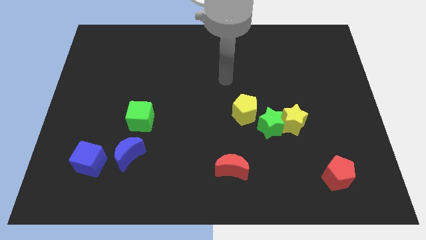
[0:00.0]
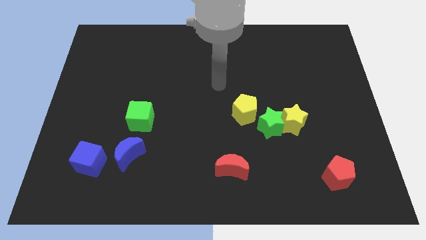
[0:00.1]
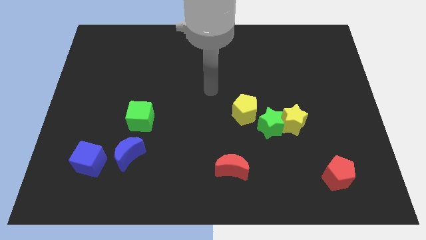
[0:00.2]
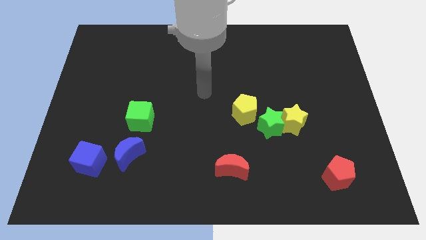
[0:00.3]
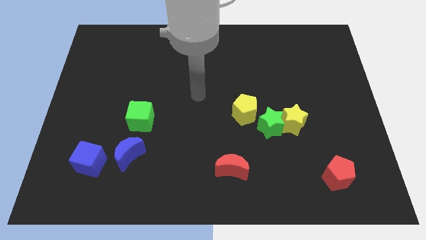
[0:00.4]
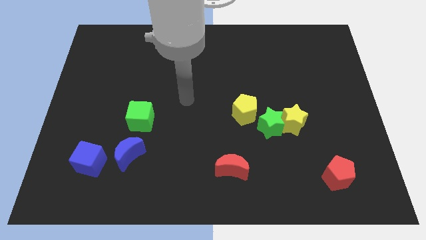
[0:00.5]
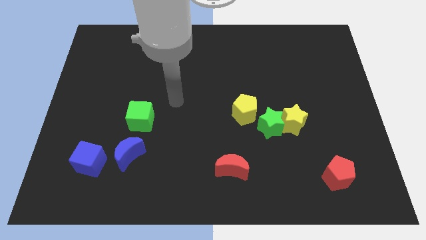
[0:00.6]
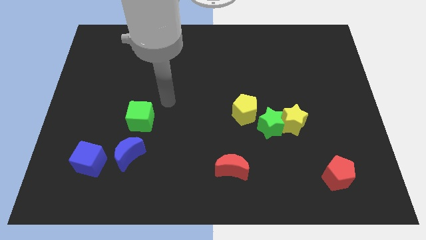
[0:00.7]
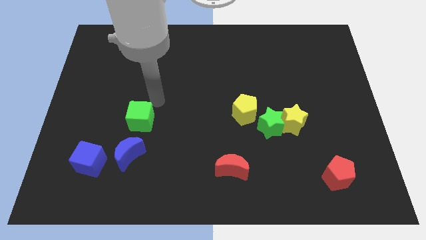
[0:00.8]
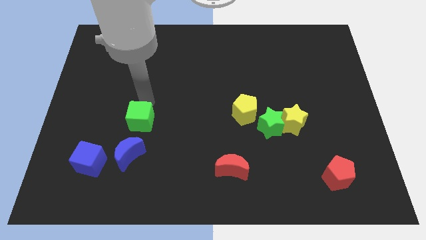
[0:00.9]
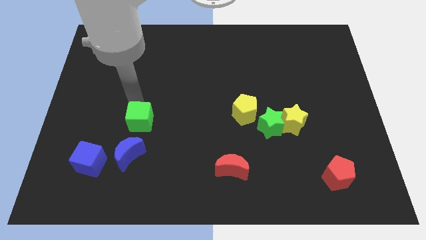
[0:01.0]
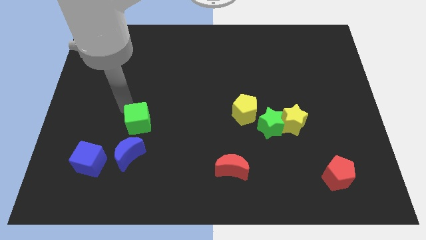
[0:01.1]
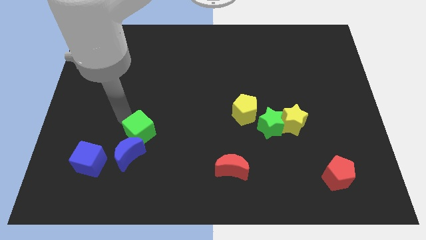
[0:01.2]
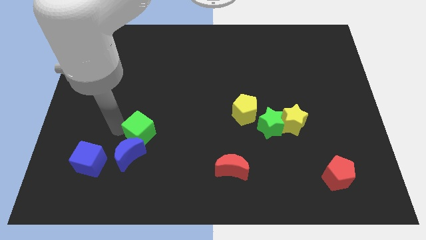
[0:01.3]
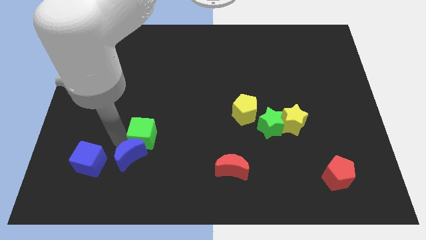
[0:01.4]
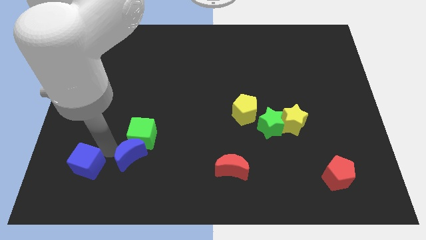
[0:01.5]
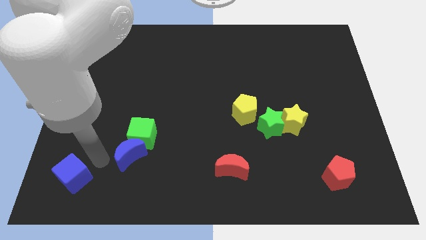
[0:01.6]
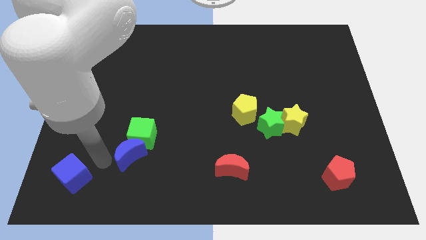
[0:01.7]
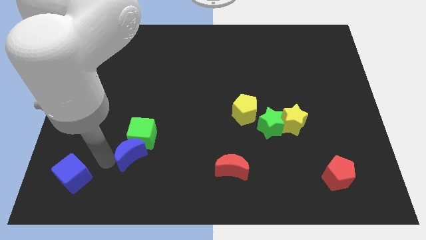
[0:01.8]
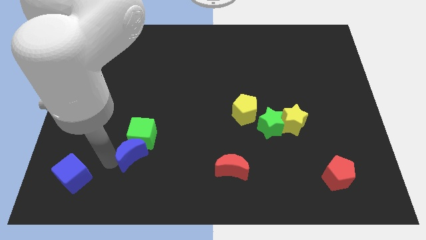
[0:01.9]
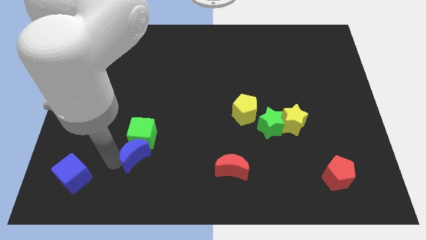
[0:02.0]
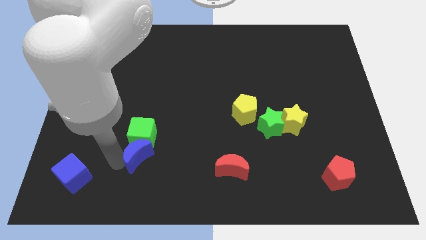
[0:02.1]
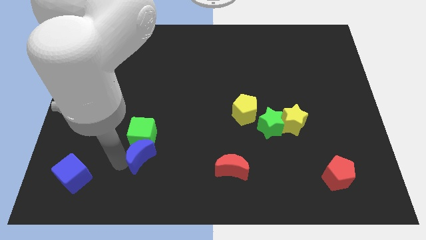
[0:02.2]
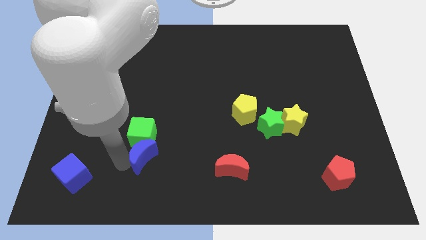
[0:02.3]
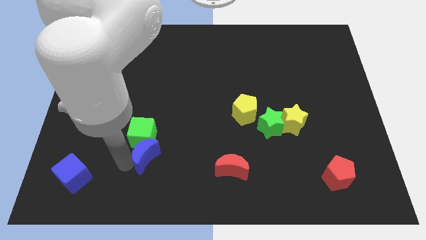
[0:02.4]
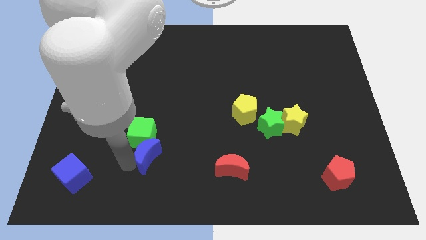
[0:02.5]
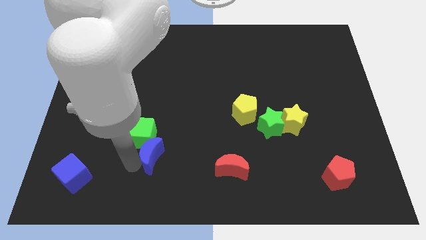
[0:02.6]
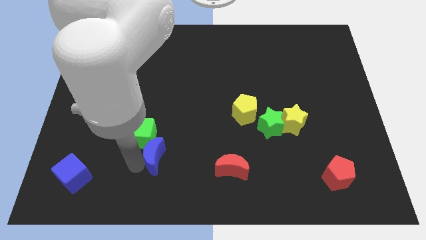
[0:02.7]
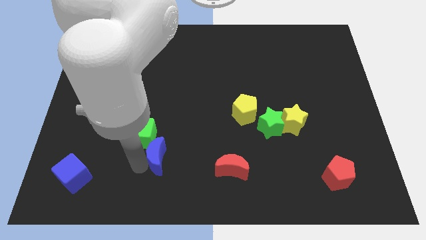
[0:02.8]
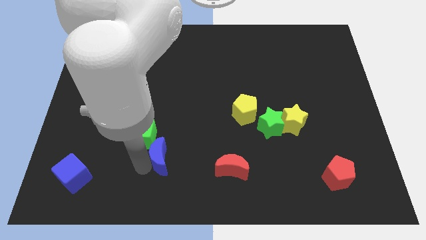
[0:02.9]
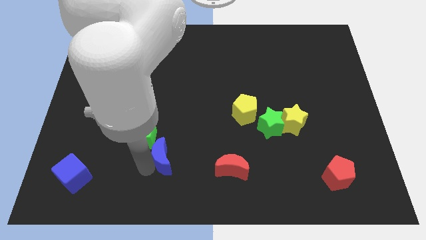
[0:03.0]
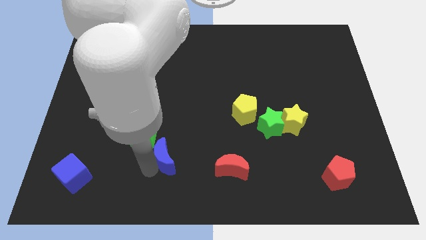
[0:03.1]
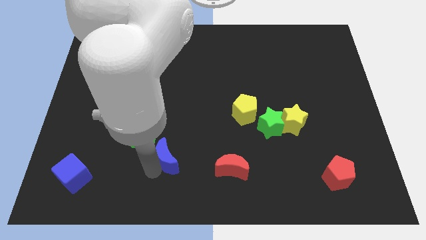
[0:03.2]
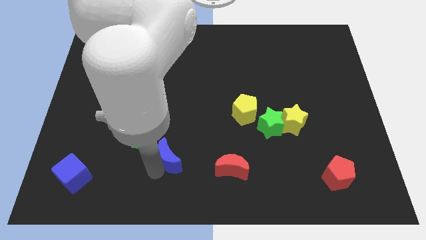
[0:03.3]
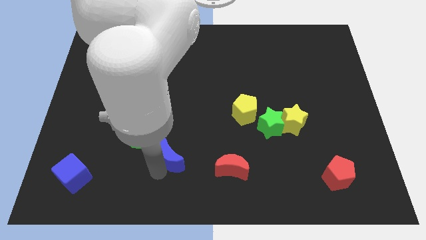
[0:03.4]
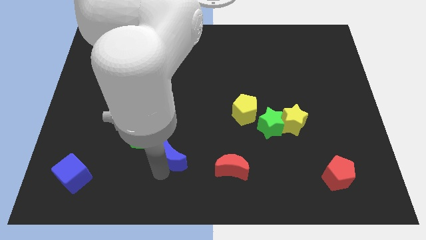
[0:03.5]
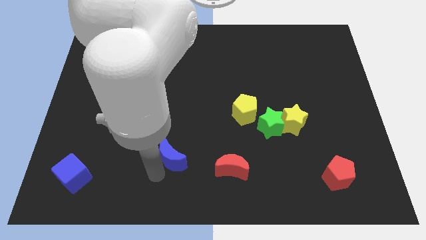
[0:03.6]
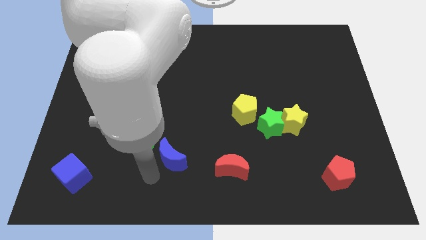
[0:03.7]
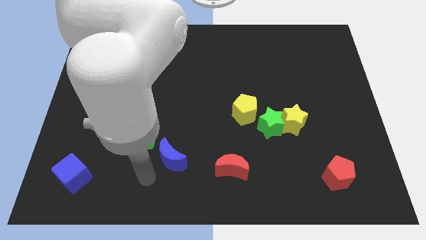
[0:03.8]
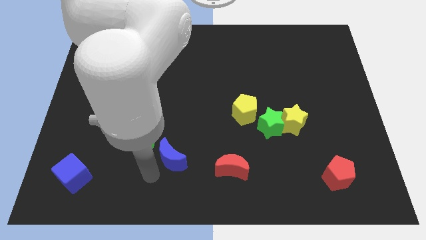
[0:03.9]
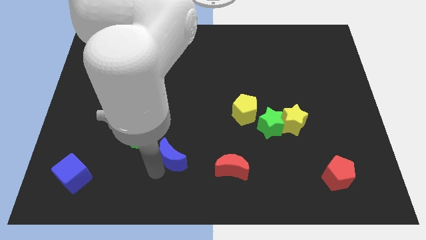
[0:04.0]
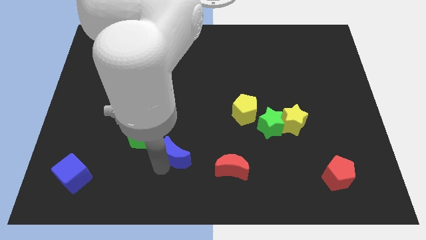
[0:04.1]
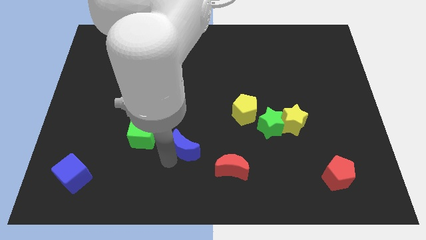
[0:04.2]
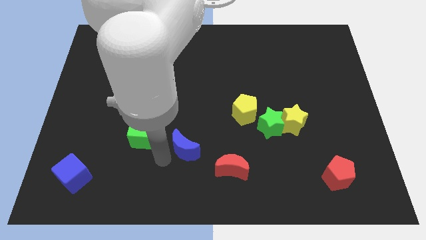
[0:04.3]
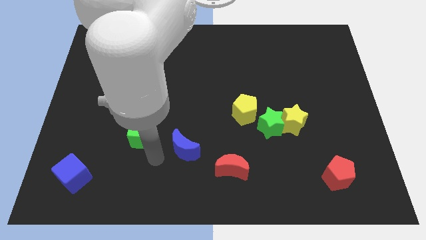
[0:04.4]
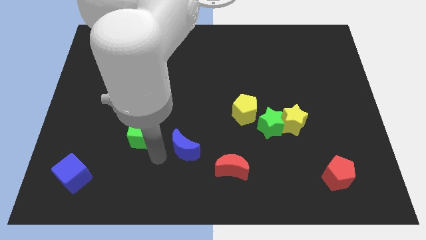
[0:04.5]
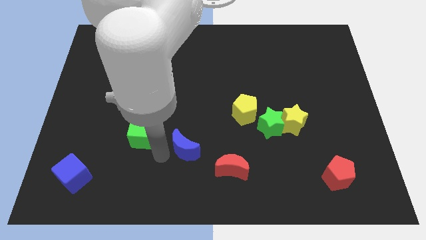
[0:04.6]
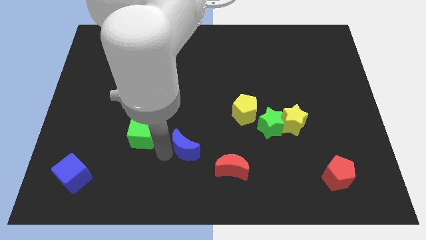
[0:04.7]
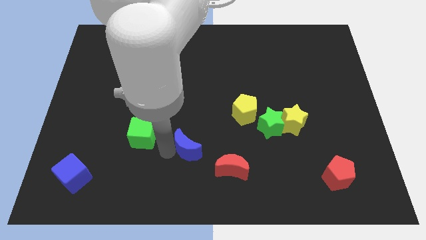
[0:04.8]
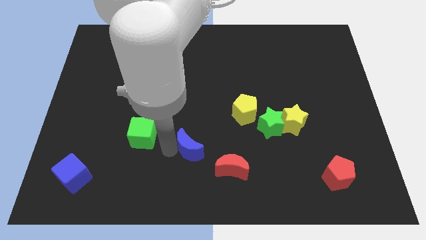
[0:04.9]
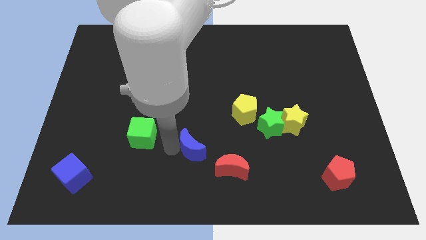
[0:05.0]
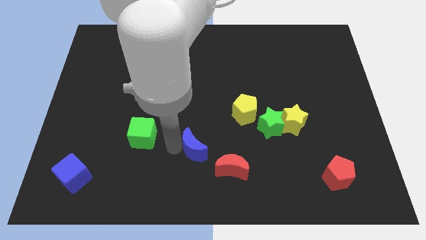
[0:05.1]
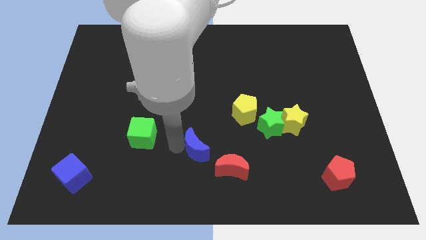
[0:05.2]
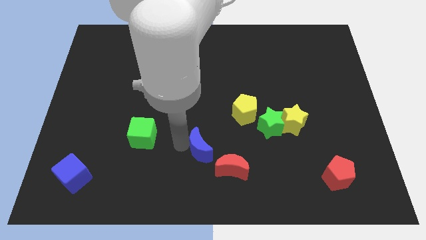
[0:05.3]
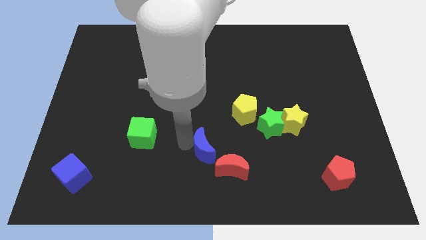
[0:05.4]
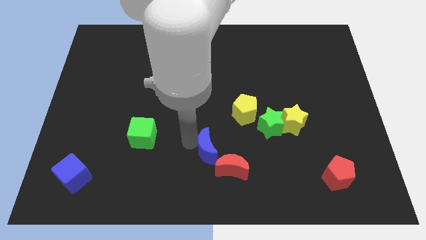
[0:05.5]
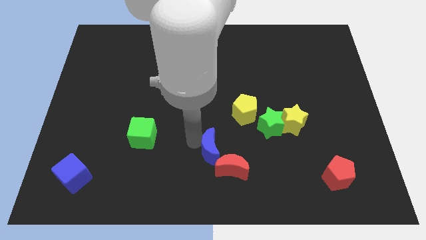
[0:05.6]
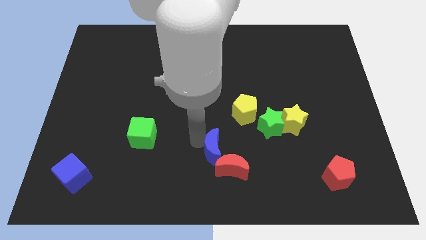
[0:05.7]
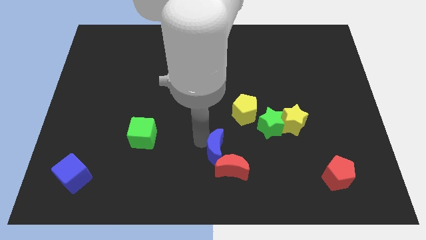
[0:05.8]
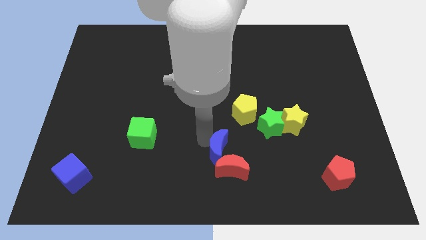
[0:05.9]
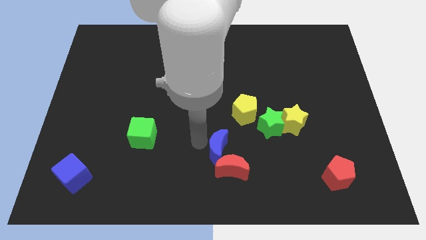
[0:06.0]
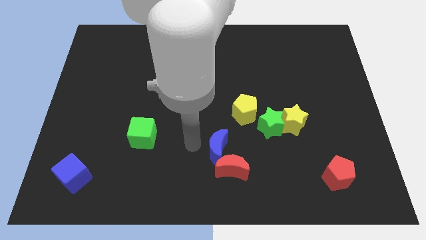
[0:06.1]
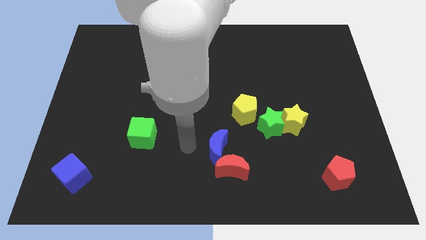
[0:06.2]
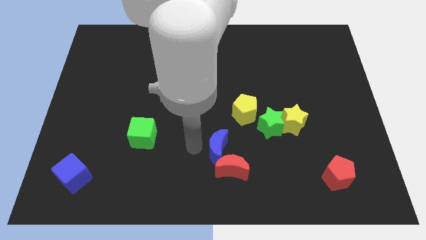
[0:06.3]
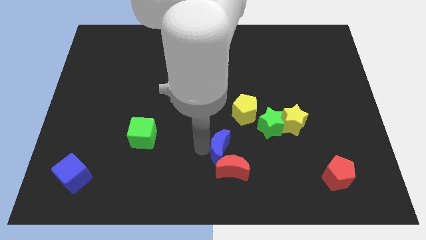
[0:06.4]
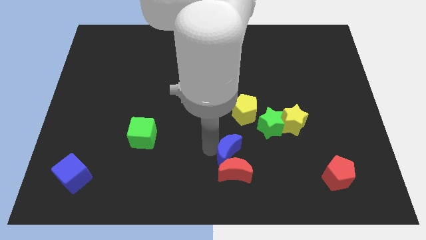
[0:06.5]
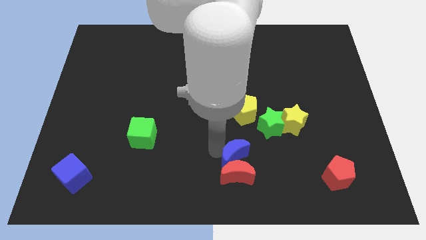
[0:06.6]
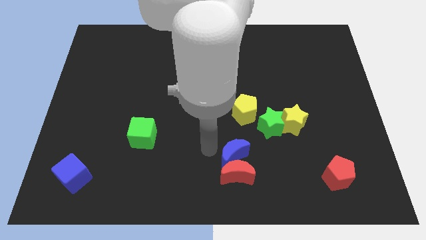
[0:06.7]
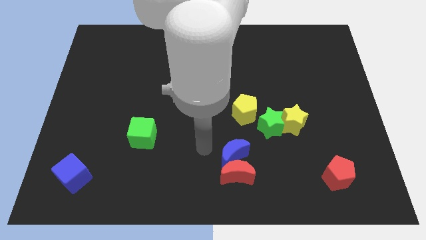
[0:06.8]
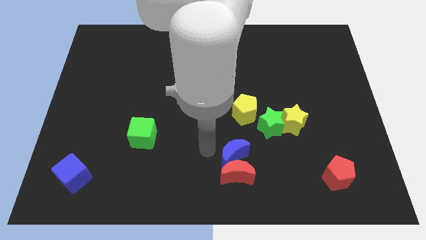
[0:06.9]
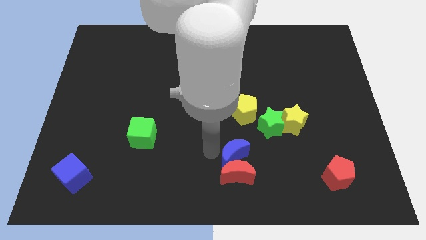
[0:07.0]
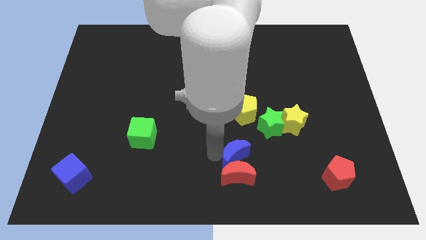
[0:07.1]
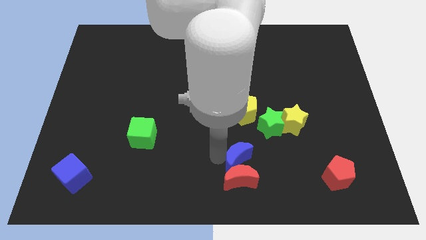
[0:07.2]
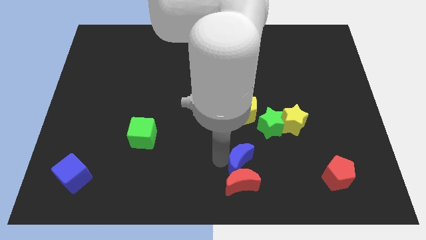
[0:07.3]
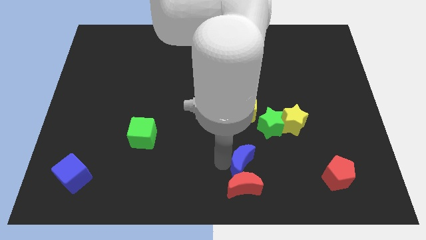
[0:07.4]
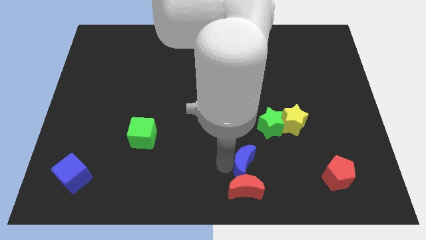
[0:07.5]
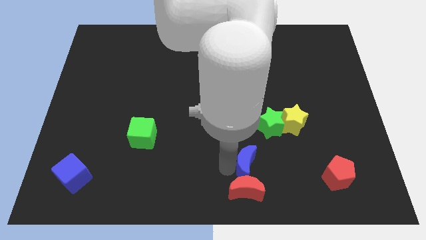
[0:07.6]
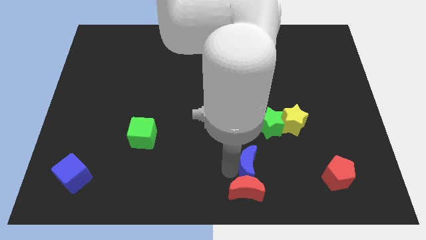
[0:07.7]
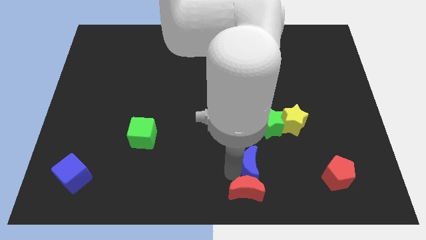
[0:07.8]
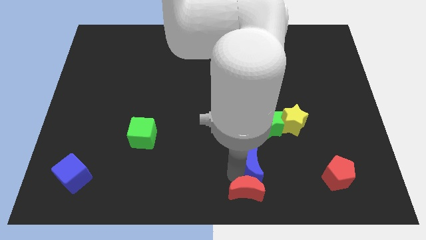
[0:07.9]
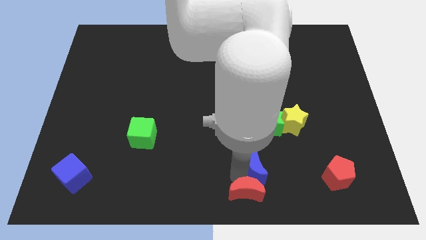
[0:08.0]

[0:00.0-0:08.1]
slide the blue moon to the bottom of the green star
